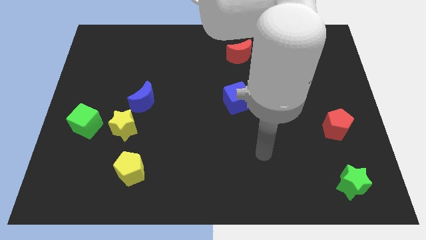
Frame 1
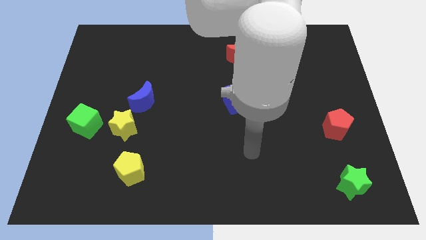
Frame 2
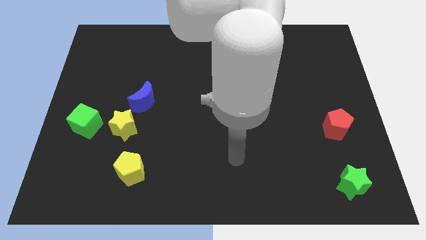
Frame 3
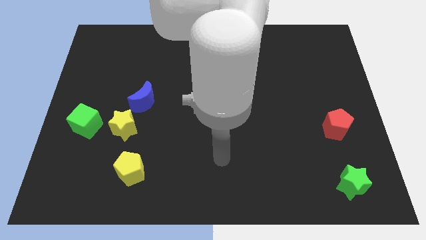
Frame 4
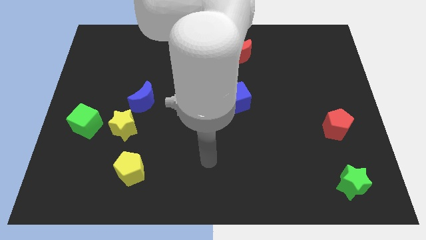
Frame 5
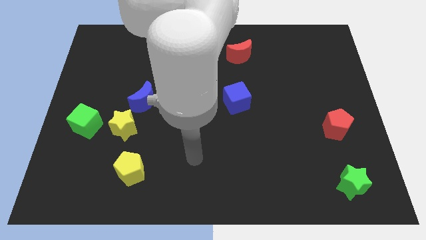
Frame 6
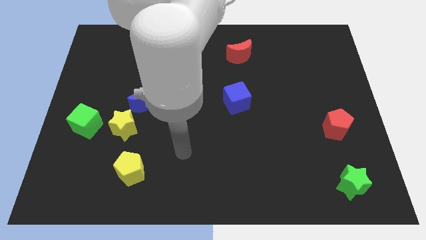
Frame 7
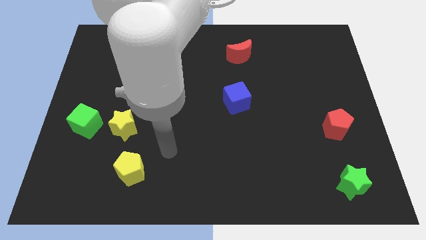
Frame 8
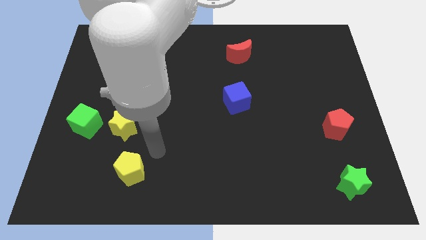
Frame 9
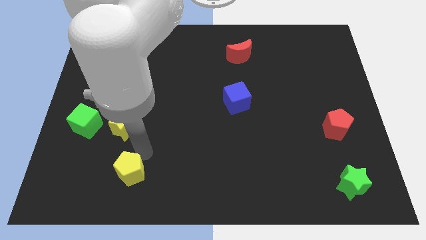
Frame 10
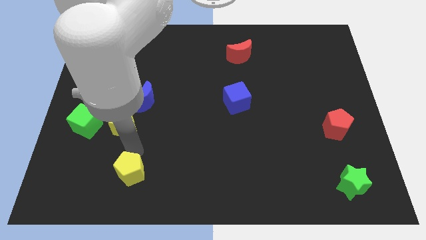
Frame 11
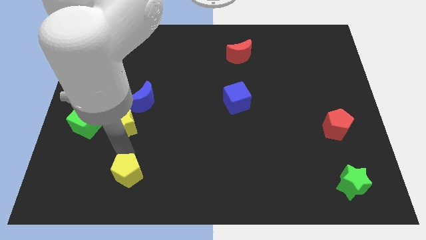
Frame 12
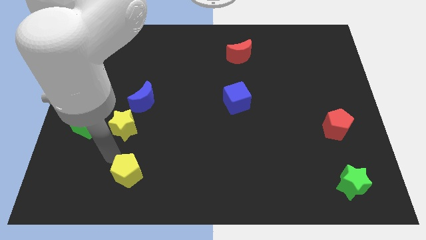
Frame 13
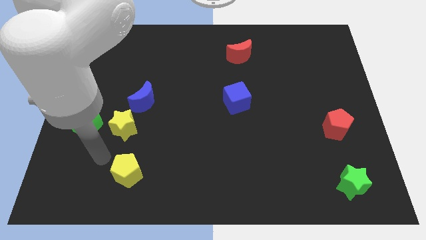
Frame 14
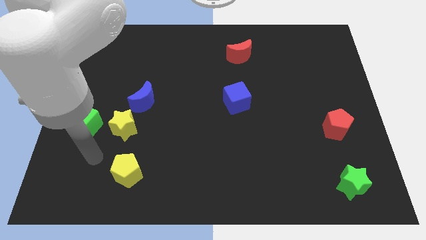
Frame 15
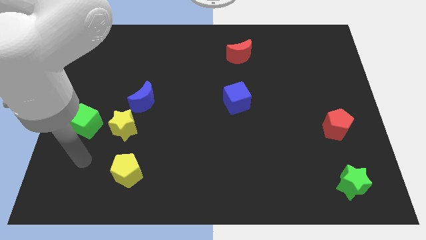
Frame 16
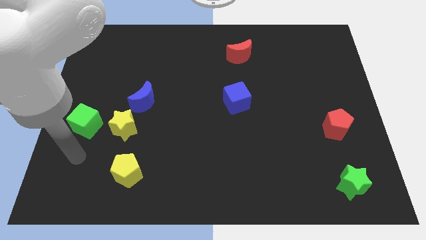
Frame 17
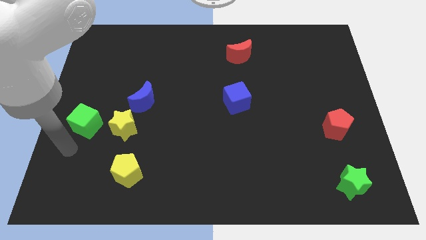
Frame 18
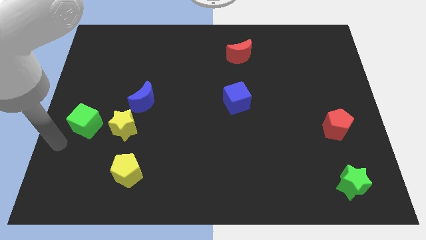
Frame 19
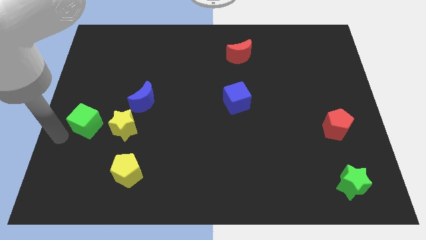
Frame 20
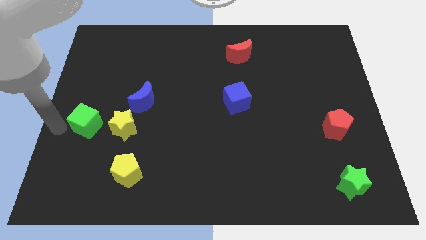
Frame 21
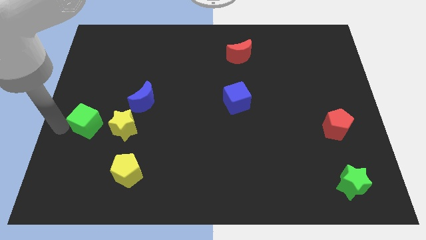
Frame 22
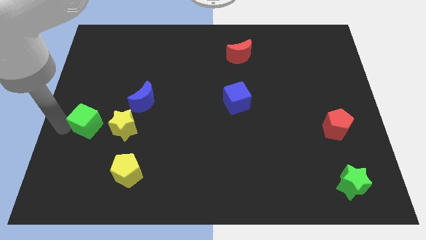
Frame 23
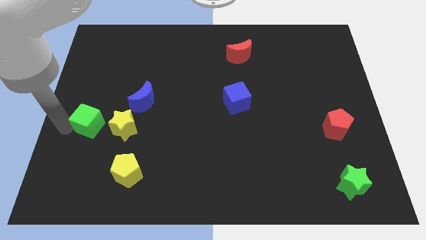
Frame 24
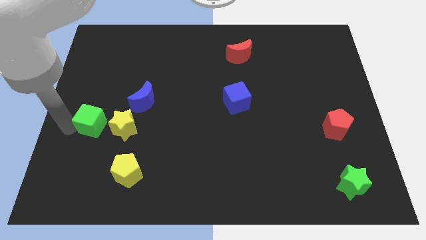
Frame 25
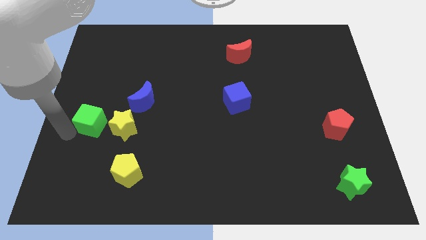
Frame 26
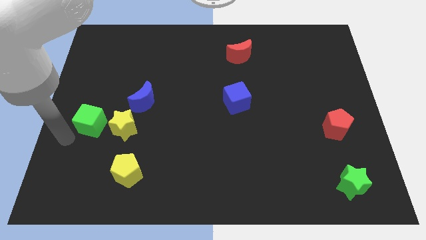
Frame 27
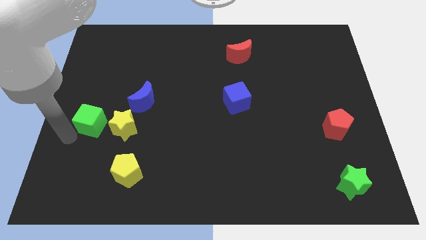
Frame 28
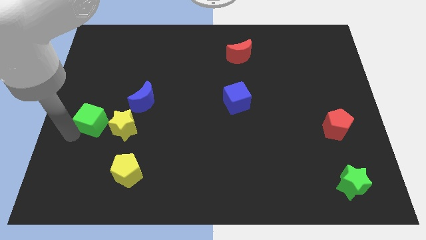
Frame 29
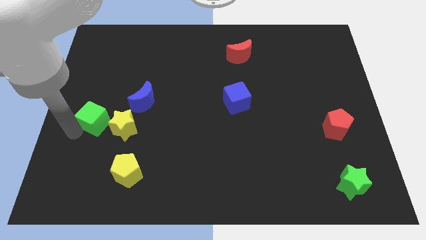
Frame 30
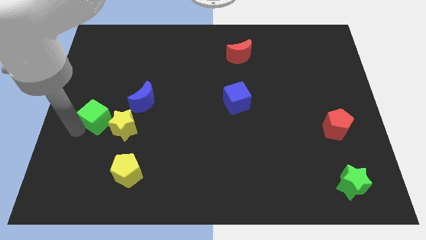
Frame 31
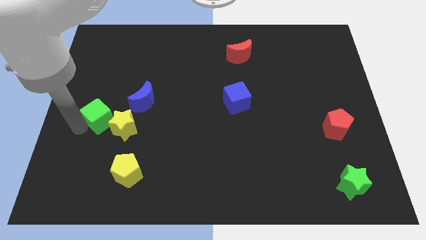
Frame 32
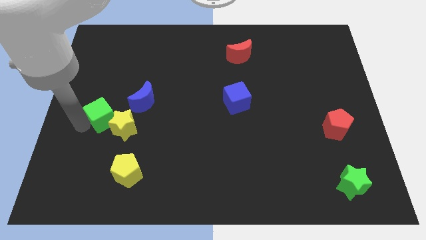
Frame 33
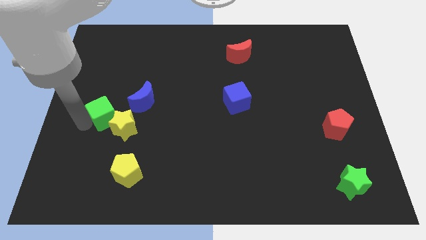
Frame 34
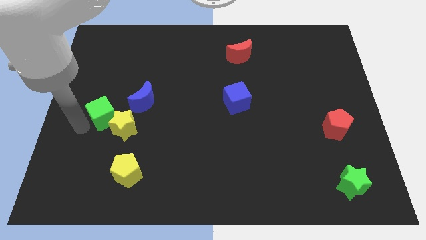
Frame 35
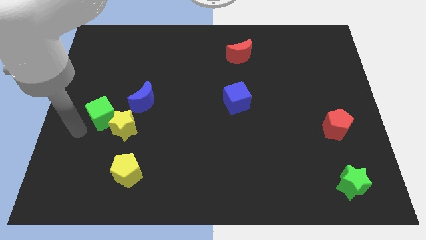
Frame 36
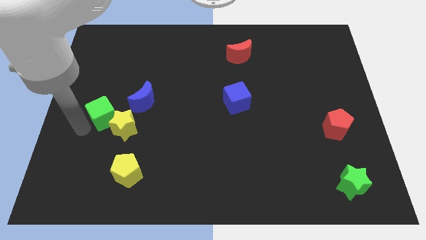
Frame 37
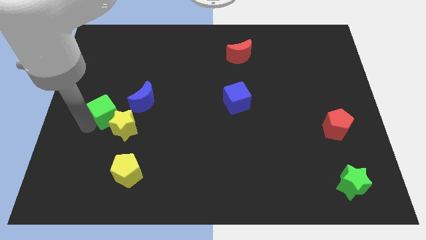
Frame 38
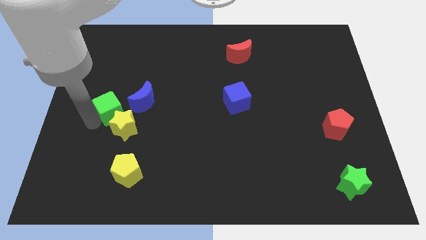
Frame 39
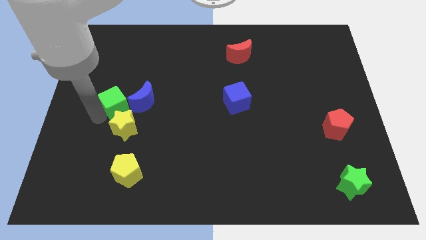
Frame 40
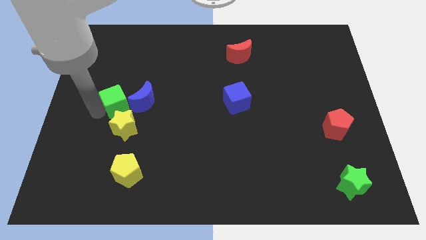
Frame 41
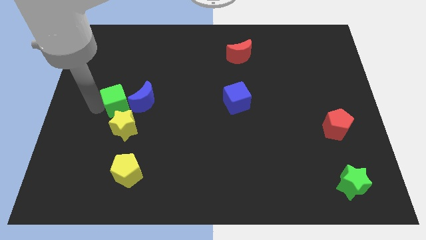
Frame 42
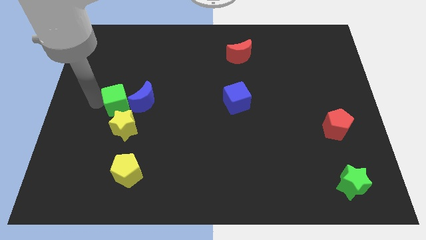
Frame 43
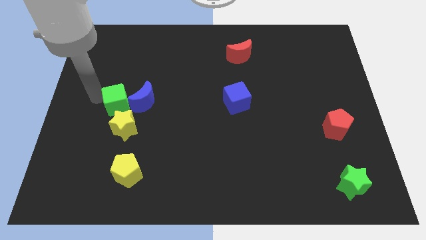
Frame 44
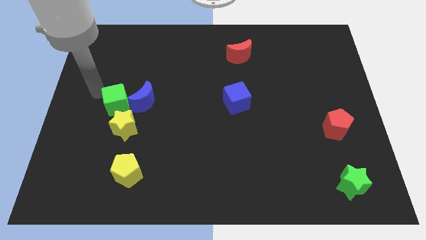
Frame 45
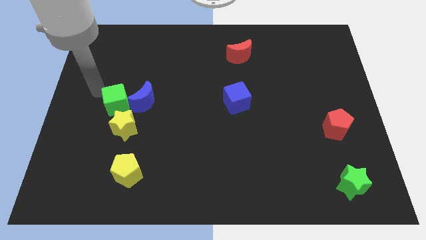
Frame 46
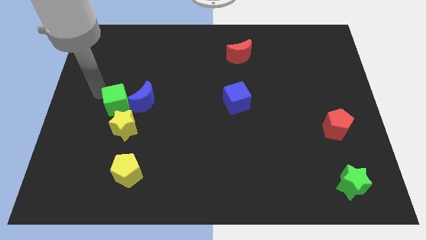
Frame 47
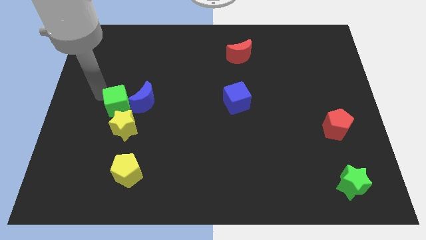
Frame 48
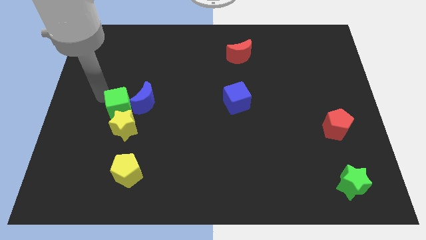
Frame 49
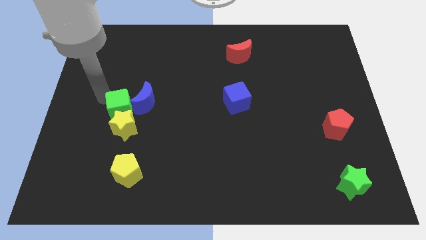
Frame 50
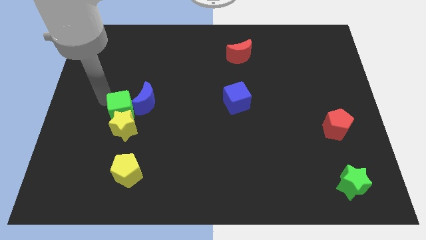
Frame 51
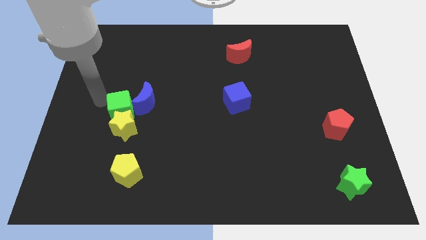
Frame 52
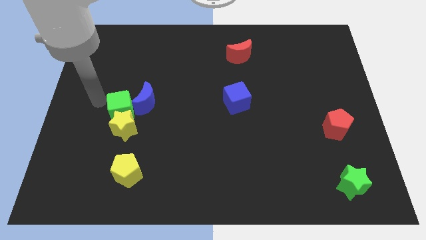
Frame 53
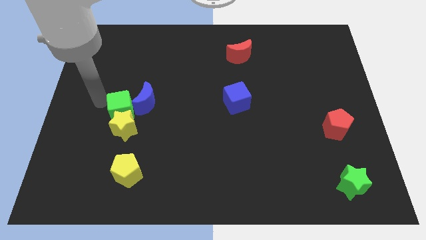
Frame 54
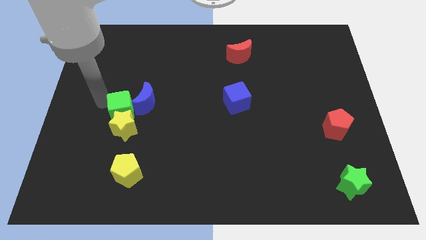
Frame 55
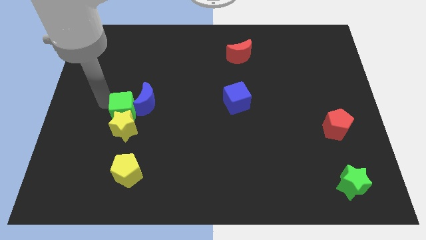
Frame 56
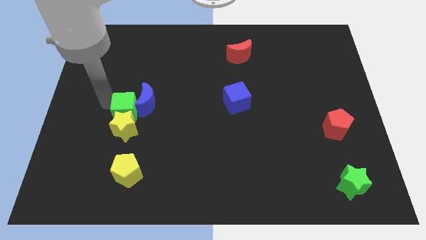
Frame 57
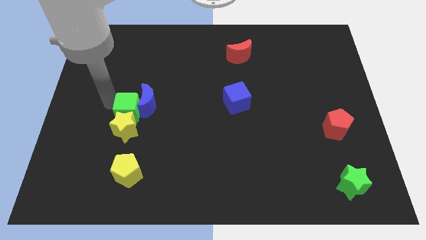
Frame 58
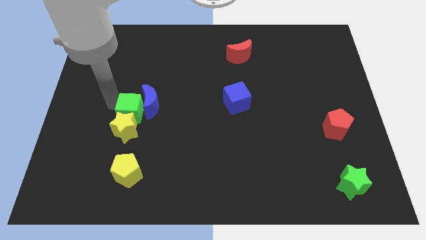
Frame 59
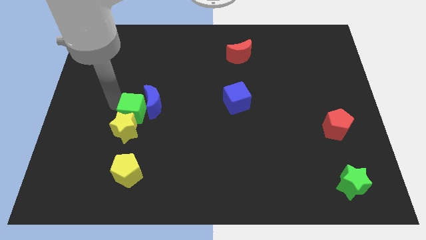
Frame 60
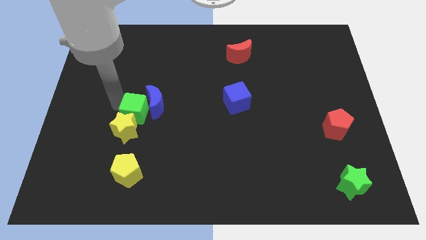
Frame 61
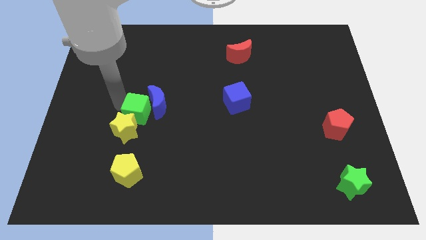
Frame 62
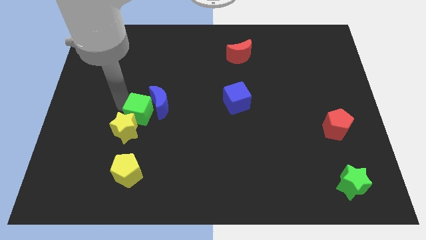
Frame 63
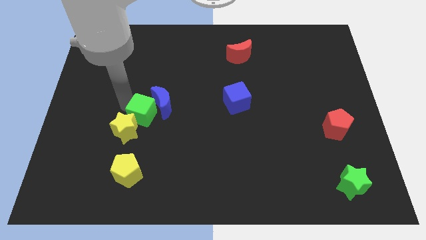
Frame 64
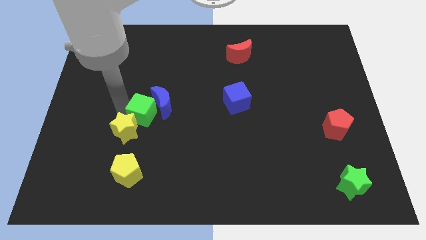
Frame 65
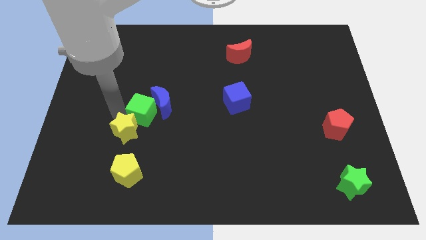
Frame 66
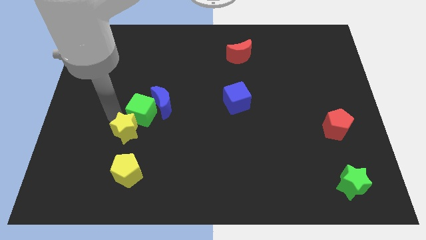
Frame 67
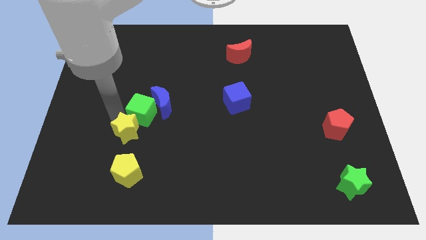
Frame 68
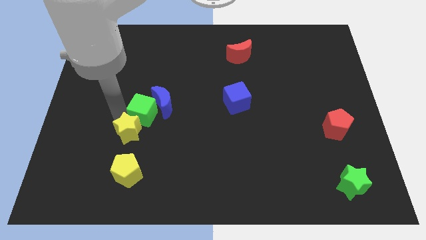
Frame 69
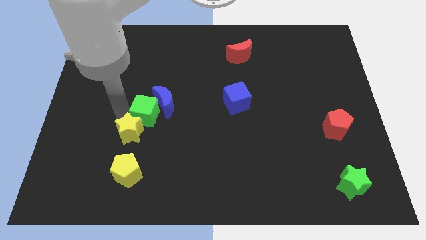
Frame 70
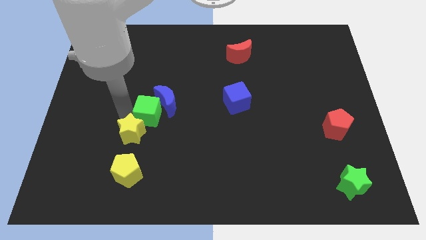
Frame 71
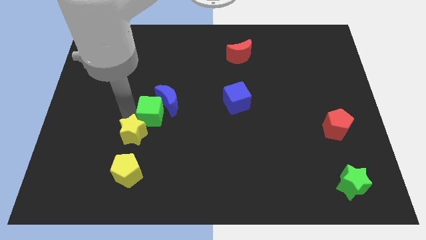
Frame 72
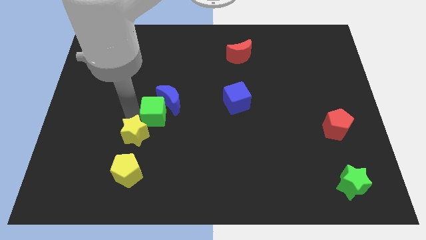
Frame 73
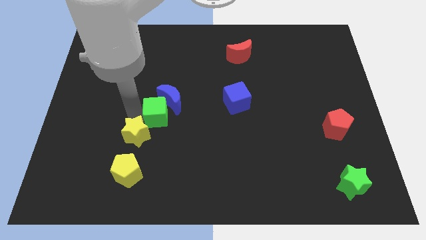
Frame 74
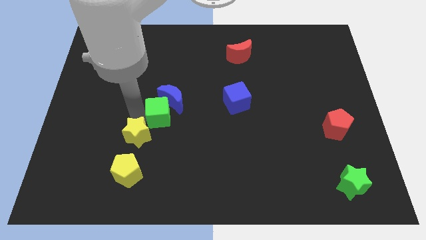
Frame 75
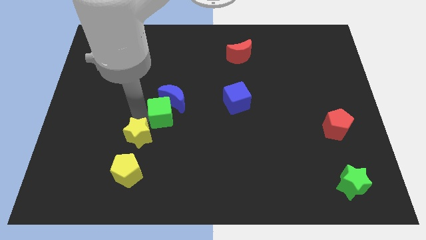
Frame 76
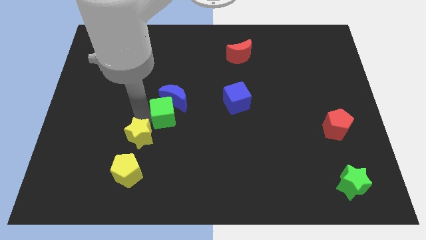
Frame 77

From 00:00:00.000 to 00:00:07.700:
move the green cube to the center
